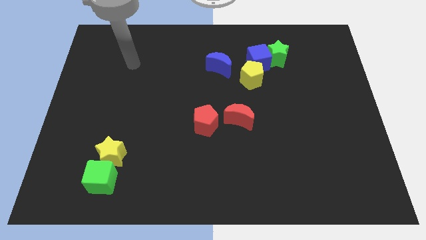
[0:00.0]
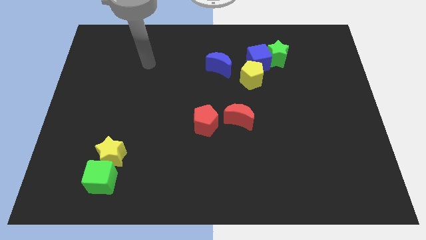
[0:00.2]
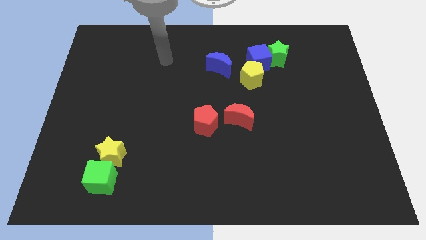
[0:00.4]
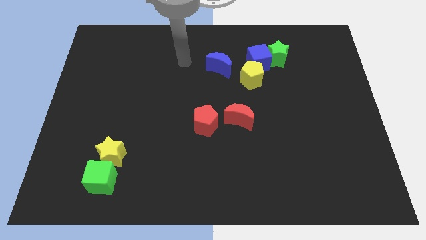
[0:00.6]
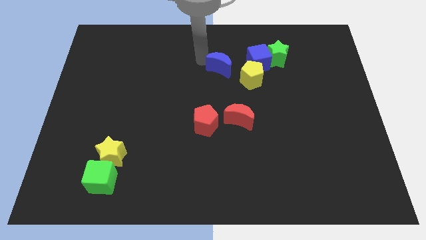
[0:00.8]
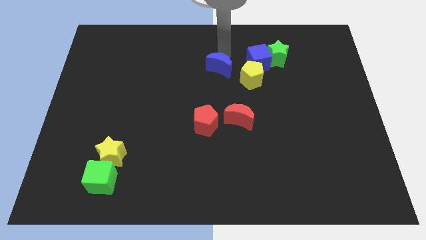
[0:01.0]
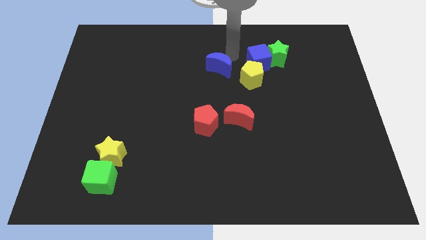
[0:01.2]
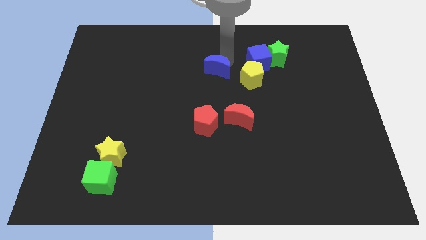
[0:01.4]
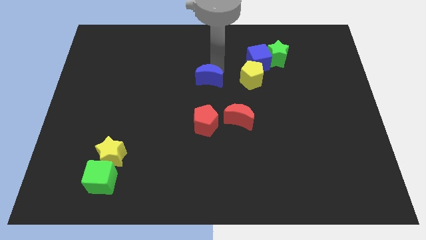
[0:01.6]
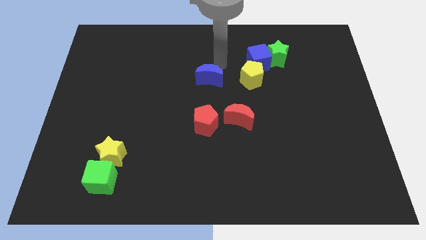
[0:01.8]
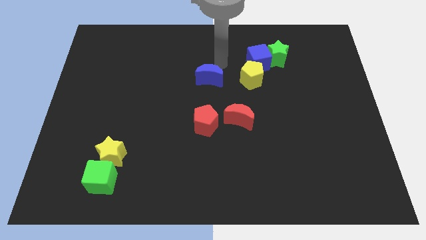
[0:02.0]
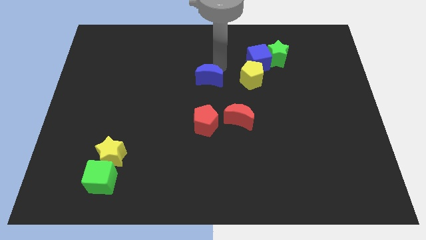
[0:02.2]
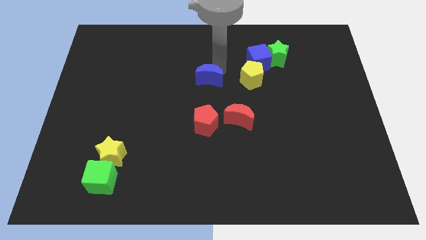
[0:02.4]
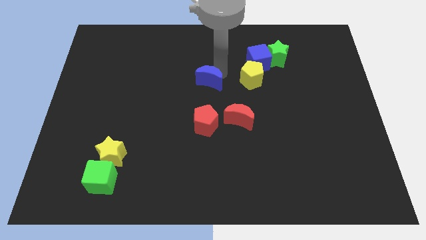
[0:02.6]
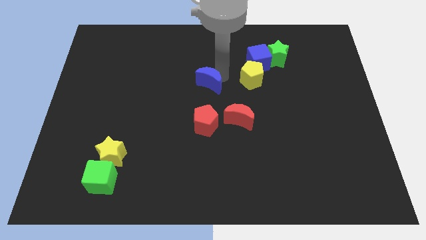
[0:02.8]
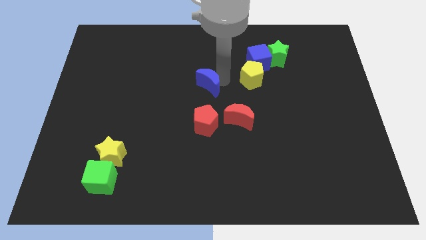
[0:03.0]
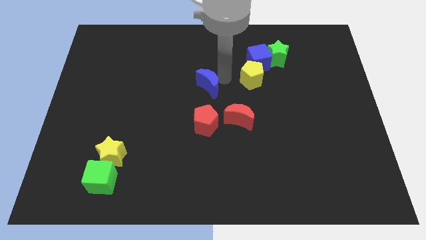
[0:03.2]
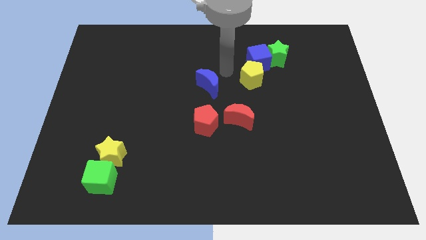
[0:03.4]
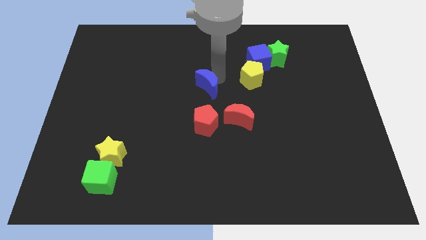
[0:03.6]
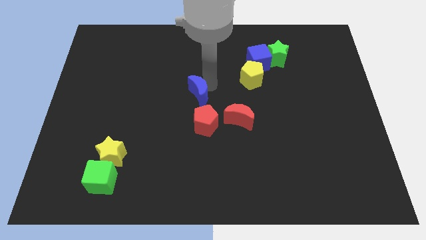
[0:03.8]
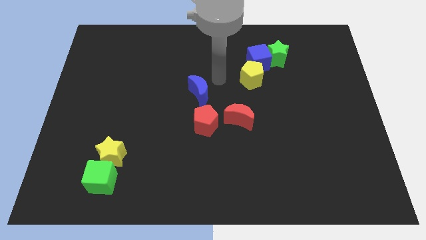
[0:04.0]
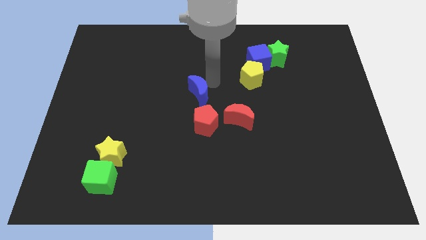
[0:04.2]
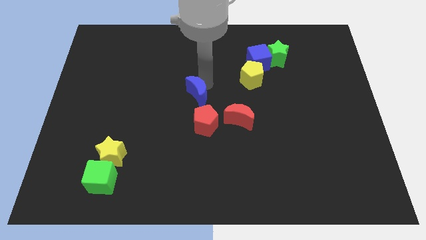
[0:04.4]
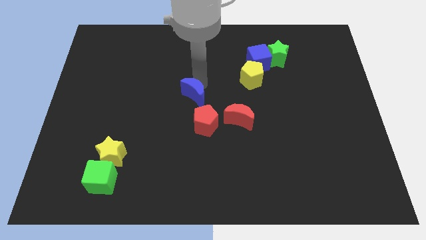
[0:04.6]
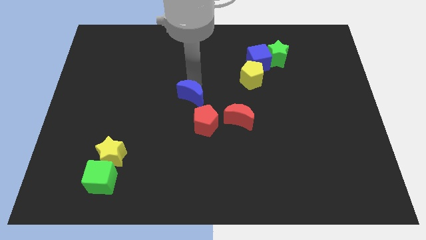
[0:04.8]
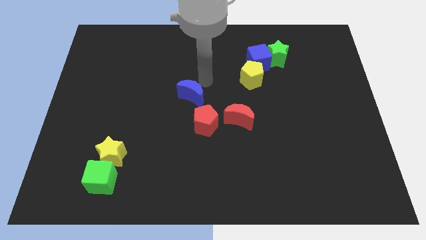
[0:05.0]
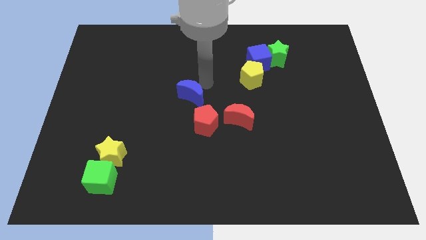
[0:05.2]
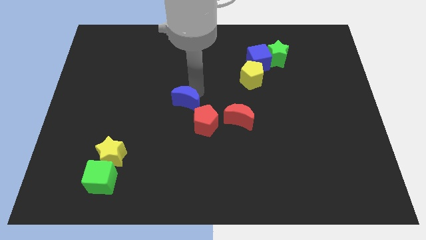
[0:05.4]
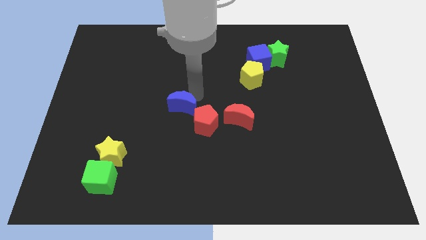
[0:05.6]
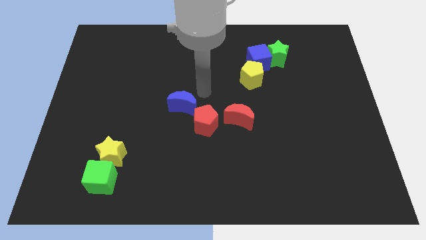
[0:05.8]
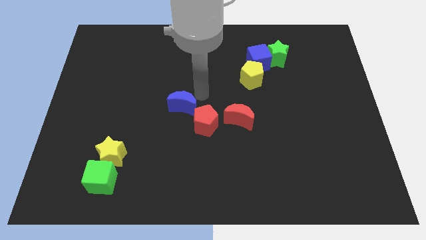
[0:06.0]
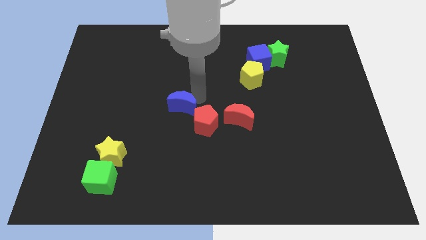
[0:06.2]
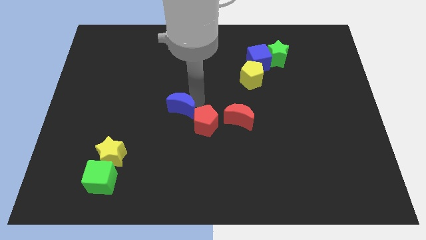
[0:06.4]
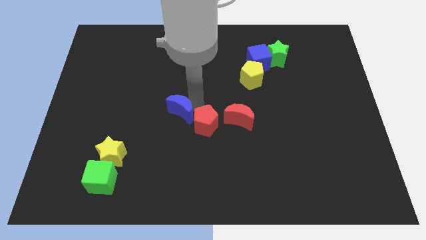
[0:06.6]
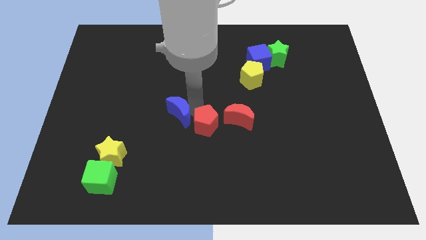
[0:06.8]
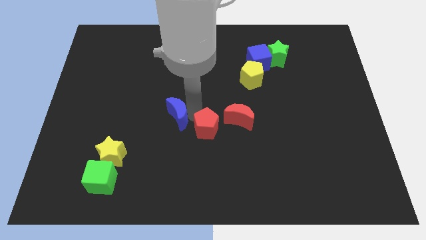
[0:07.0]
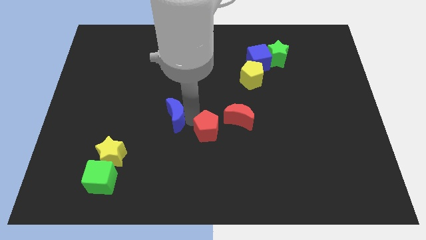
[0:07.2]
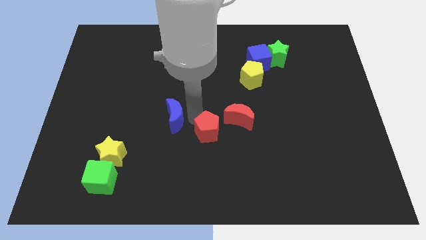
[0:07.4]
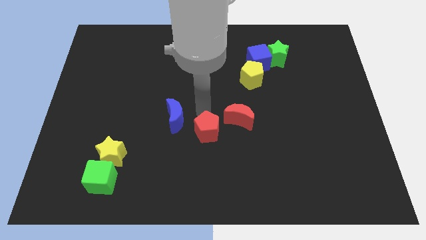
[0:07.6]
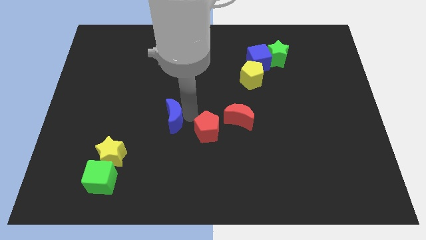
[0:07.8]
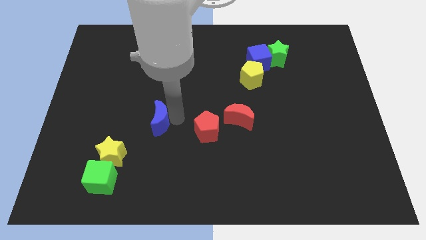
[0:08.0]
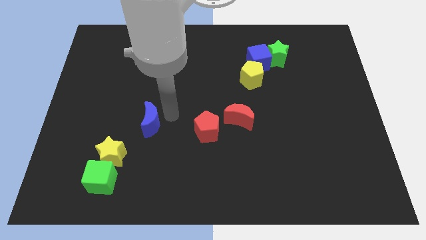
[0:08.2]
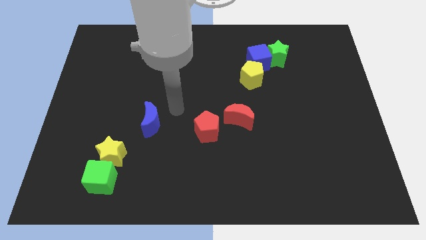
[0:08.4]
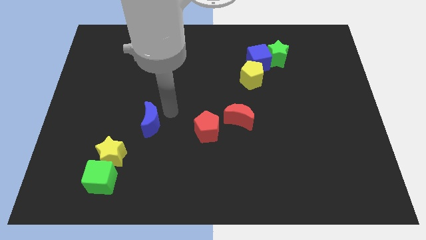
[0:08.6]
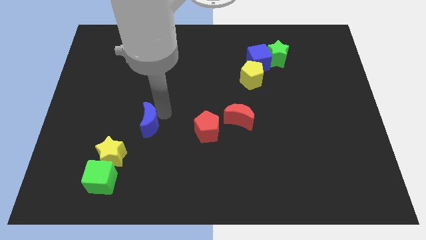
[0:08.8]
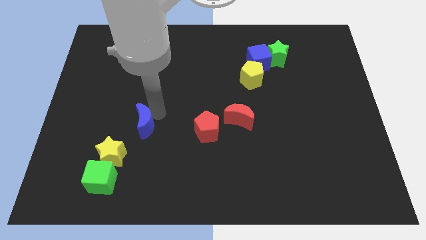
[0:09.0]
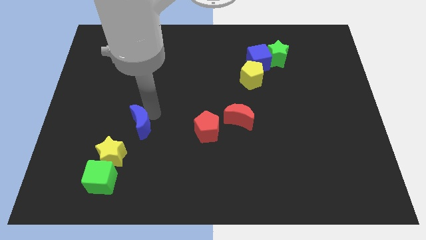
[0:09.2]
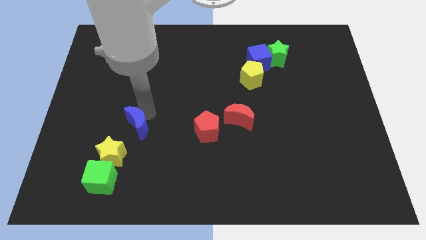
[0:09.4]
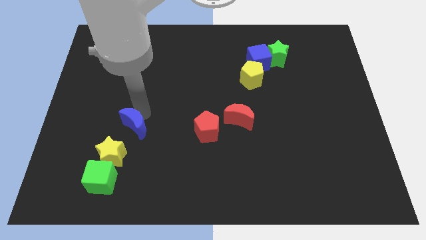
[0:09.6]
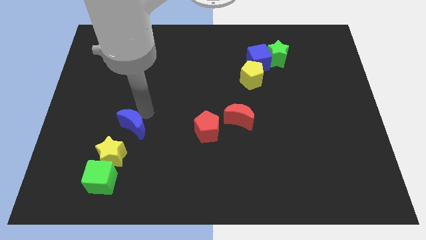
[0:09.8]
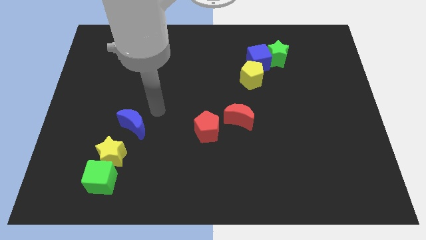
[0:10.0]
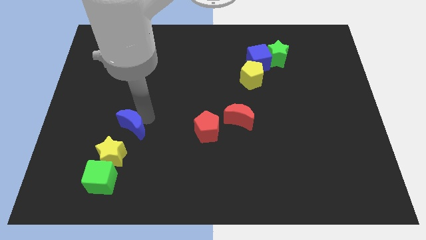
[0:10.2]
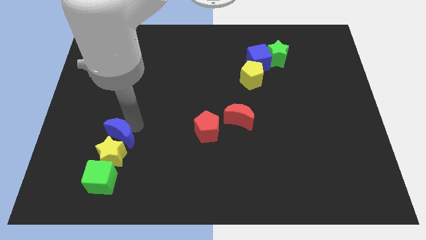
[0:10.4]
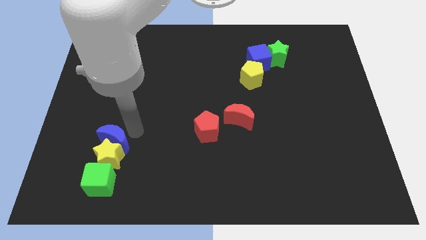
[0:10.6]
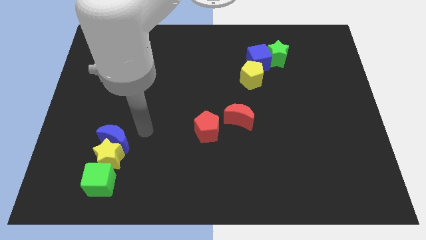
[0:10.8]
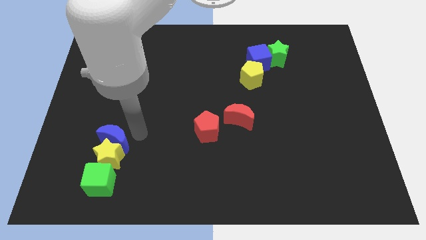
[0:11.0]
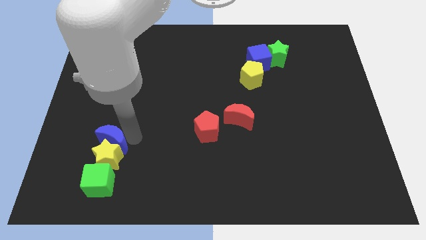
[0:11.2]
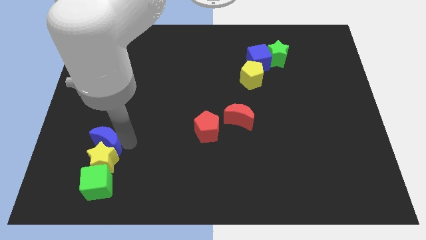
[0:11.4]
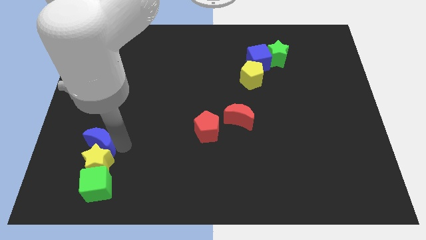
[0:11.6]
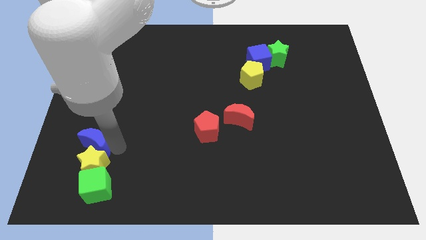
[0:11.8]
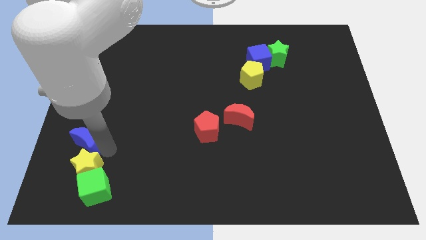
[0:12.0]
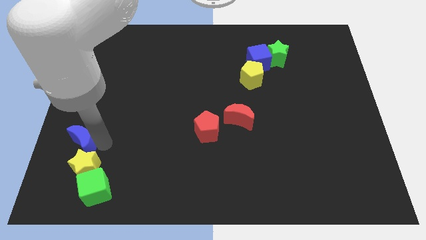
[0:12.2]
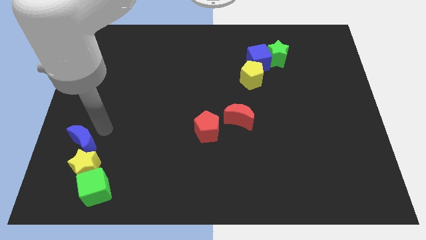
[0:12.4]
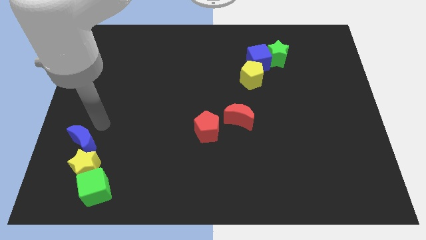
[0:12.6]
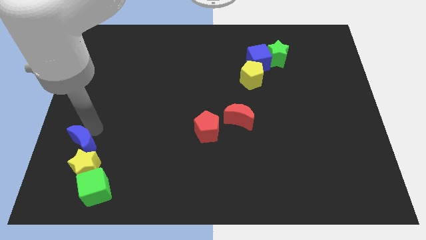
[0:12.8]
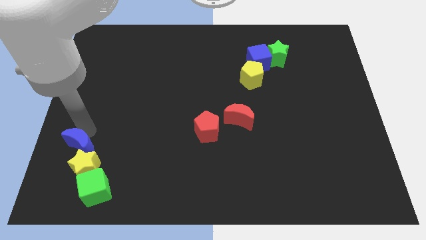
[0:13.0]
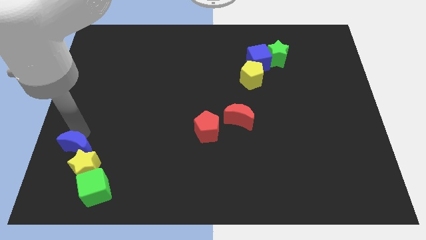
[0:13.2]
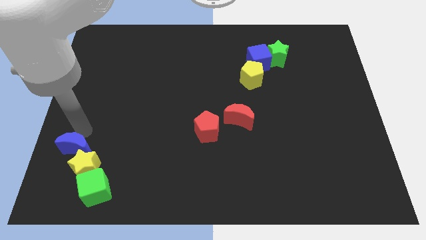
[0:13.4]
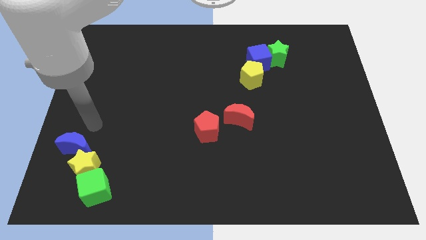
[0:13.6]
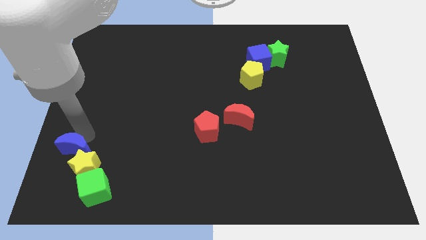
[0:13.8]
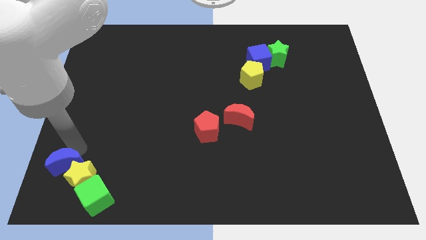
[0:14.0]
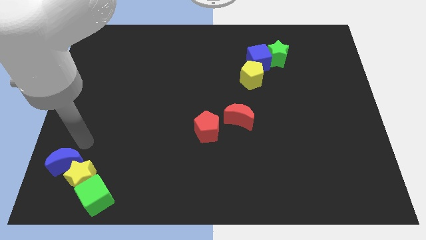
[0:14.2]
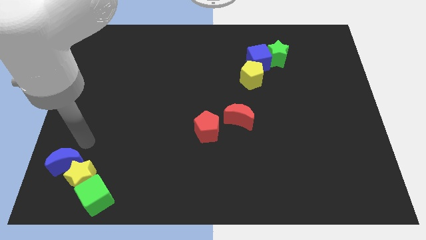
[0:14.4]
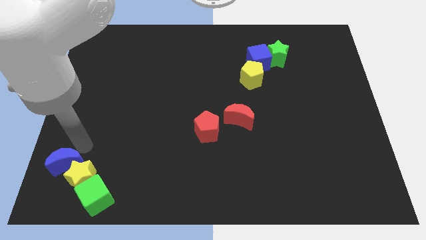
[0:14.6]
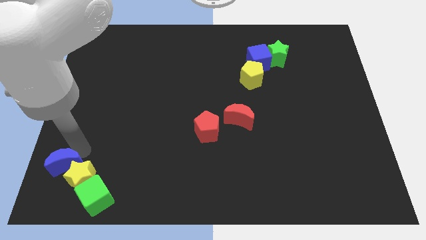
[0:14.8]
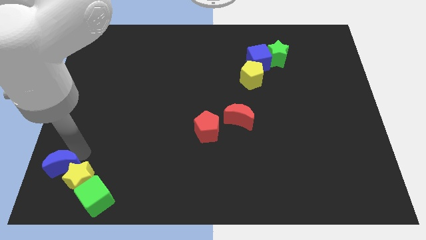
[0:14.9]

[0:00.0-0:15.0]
put the blue moon to the bottom left of the board
